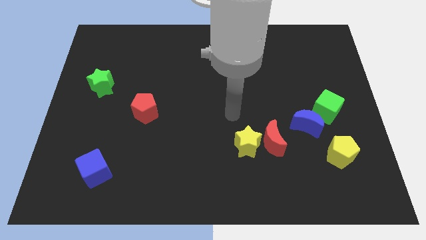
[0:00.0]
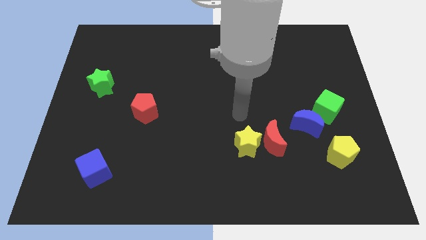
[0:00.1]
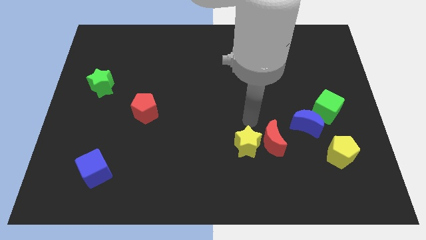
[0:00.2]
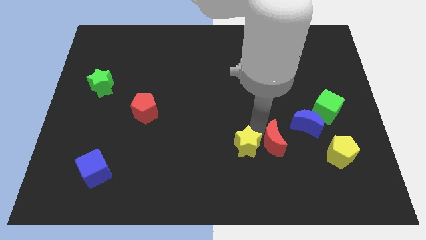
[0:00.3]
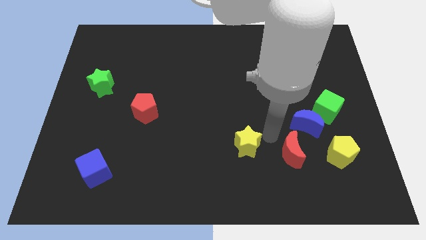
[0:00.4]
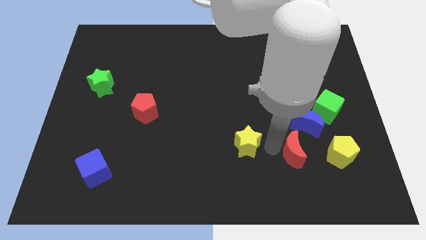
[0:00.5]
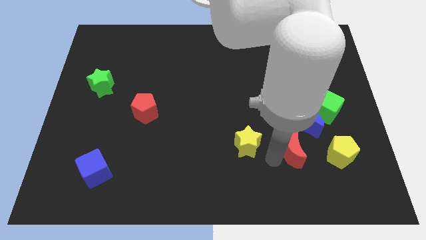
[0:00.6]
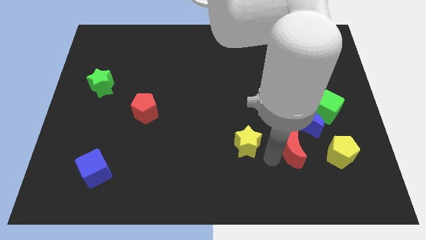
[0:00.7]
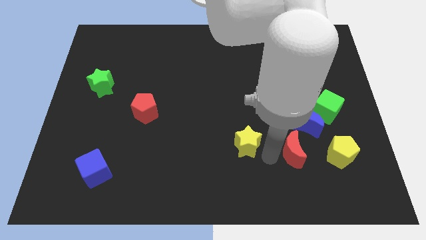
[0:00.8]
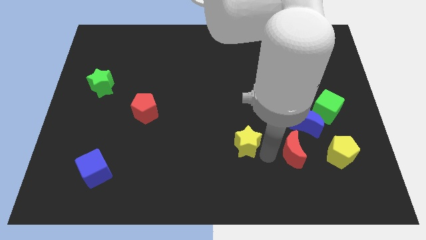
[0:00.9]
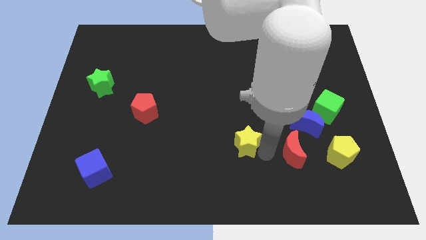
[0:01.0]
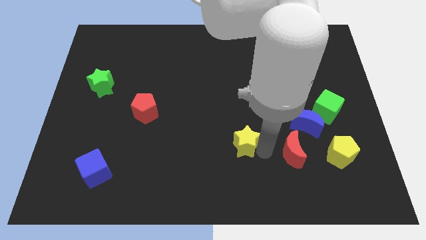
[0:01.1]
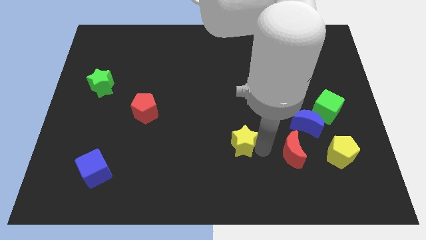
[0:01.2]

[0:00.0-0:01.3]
separate the yellow star from the red moon

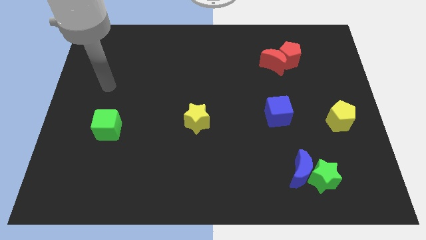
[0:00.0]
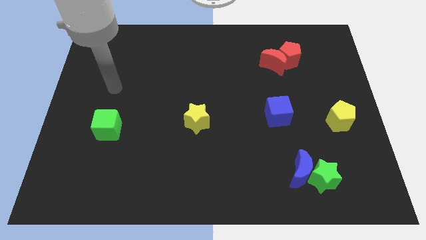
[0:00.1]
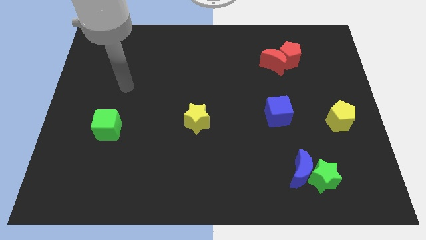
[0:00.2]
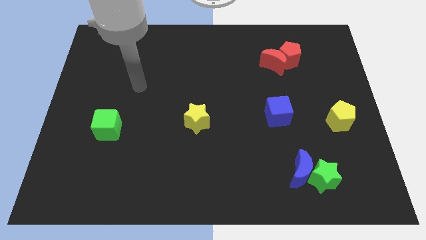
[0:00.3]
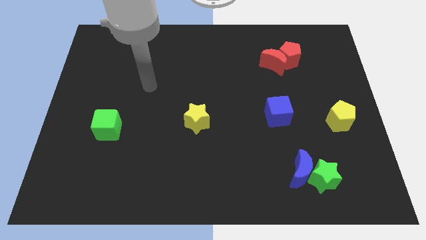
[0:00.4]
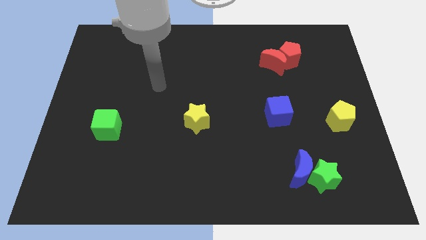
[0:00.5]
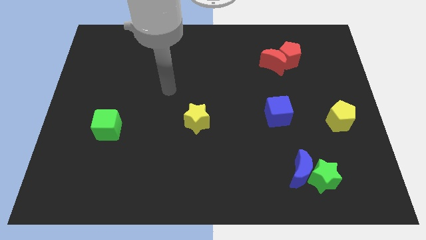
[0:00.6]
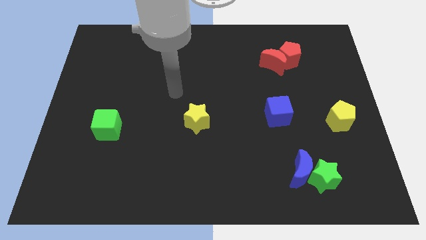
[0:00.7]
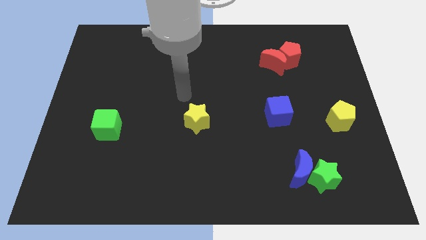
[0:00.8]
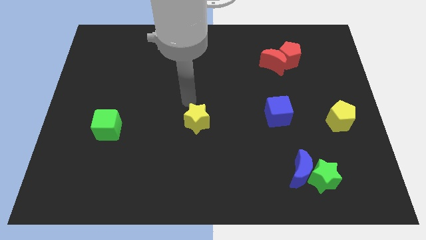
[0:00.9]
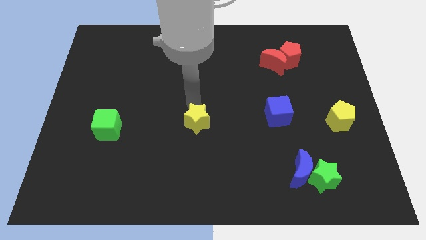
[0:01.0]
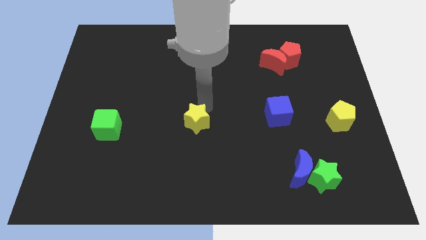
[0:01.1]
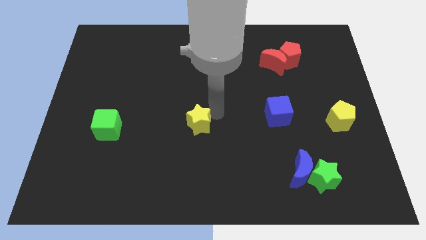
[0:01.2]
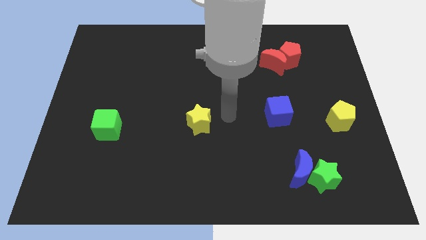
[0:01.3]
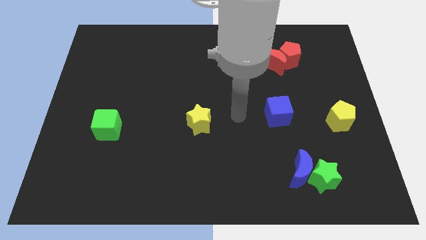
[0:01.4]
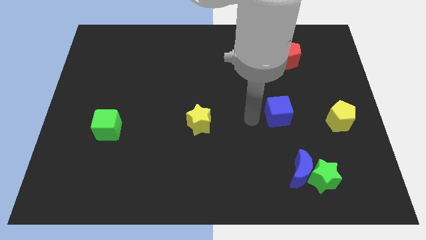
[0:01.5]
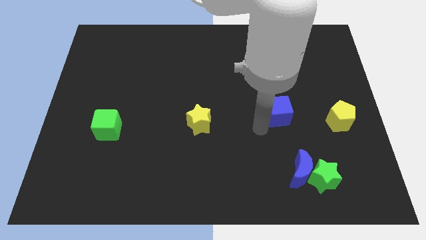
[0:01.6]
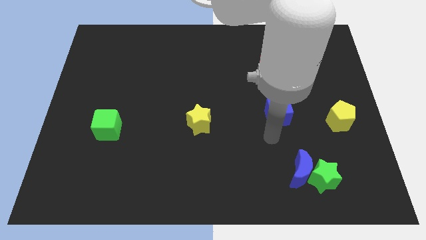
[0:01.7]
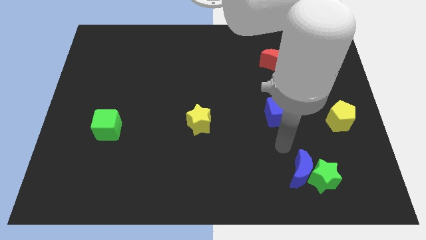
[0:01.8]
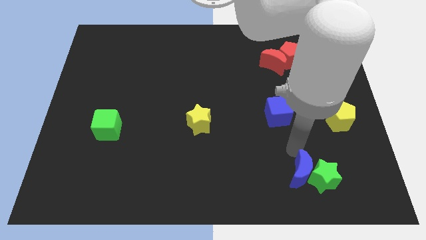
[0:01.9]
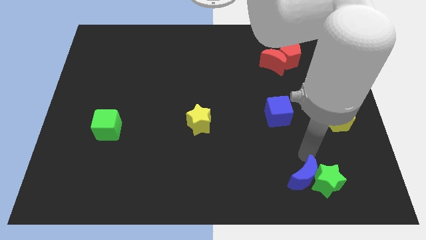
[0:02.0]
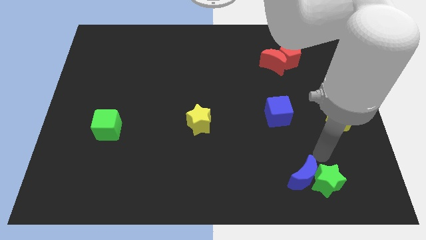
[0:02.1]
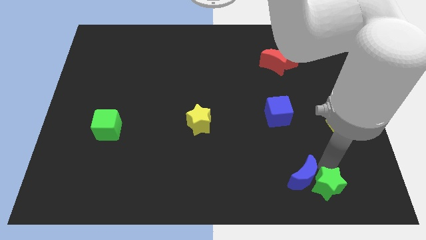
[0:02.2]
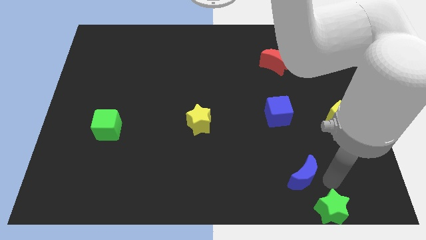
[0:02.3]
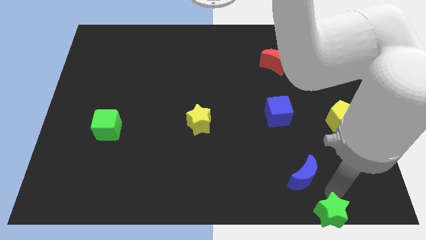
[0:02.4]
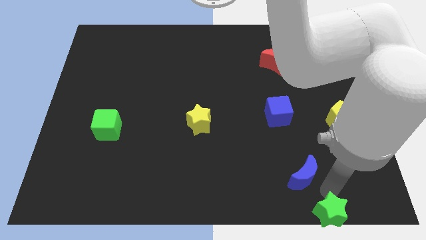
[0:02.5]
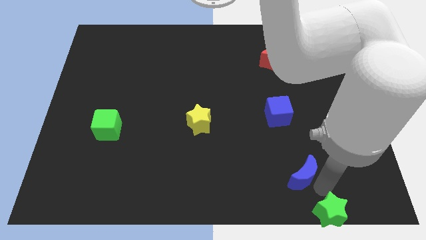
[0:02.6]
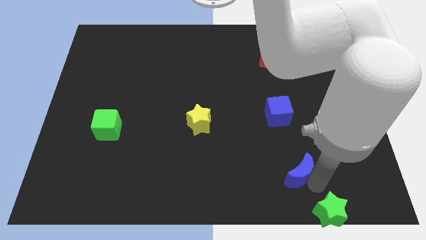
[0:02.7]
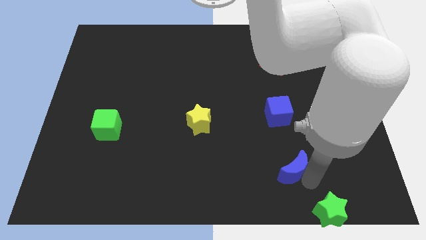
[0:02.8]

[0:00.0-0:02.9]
move the blue moon away from the green star

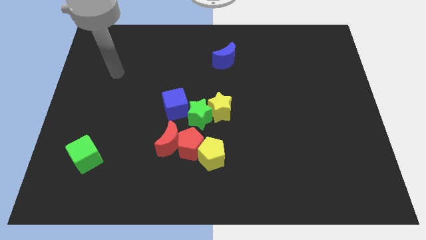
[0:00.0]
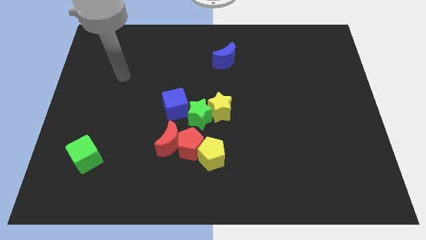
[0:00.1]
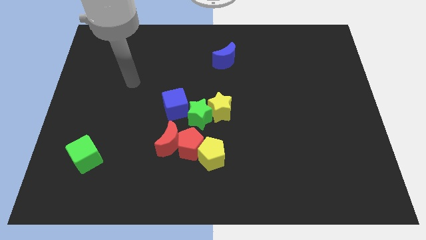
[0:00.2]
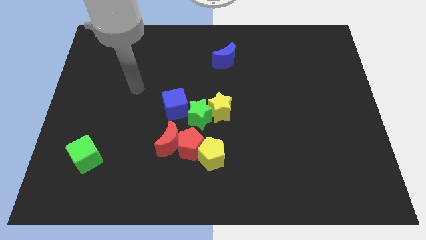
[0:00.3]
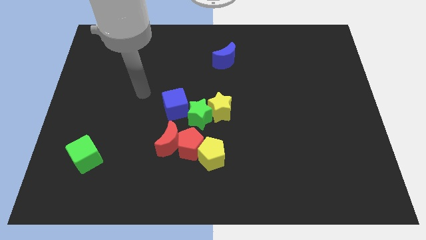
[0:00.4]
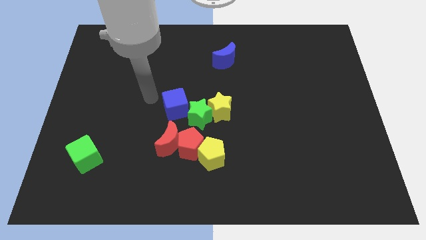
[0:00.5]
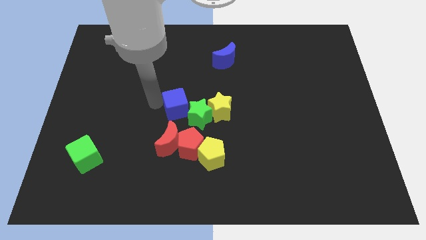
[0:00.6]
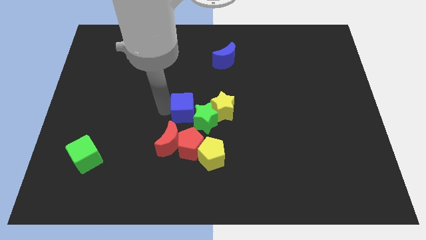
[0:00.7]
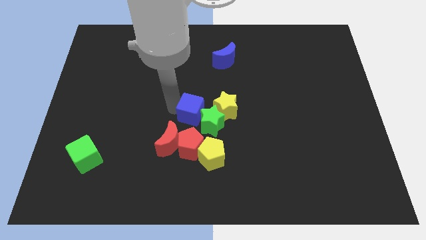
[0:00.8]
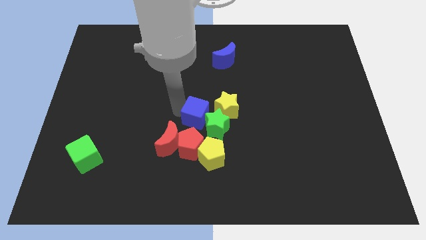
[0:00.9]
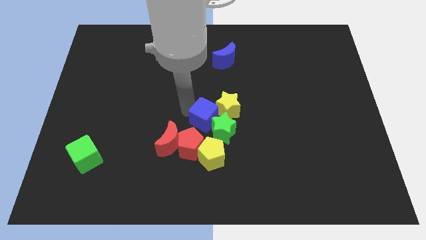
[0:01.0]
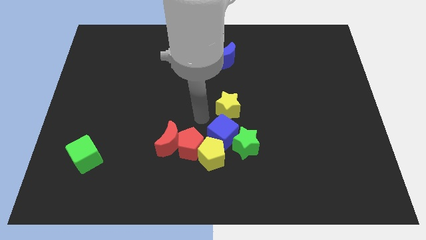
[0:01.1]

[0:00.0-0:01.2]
pull the yellow star apart from the green star

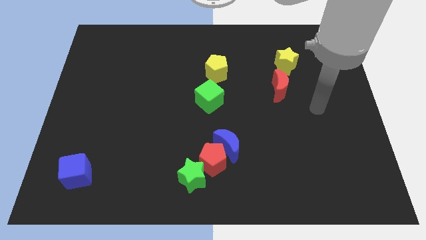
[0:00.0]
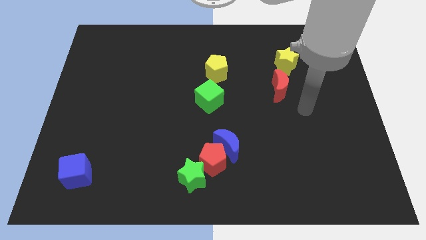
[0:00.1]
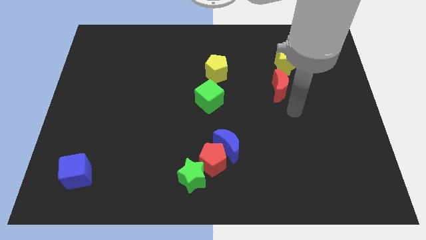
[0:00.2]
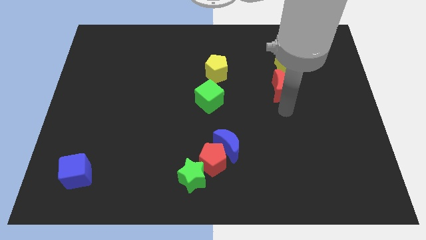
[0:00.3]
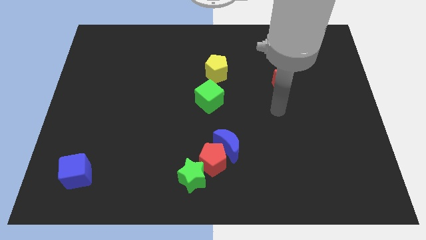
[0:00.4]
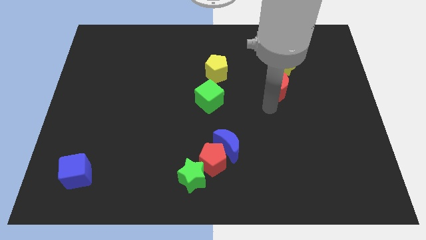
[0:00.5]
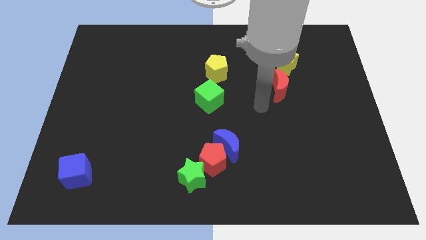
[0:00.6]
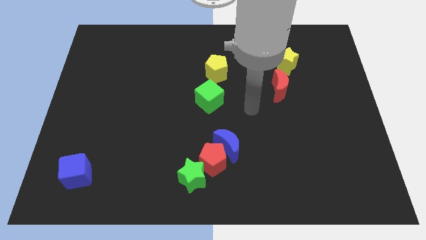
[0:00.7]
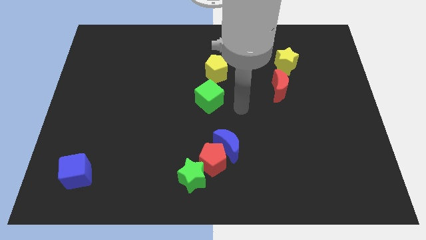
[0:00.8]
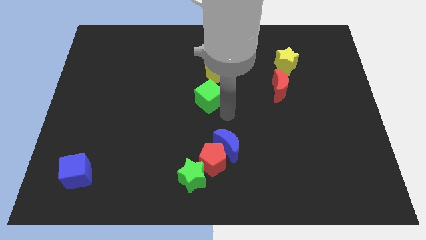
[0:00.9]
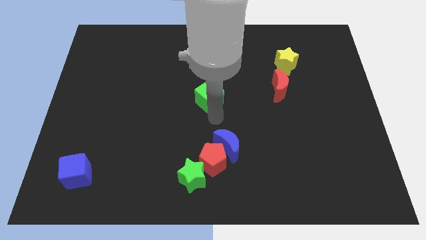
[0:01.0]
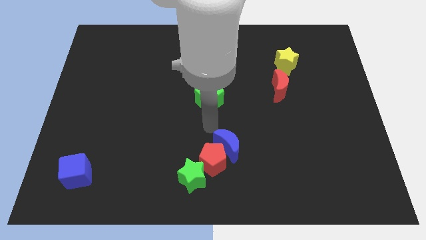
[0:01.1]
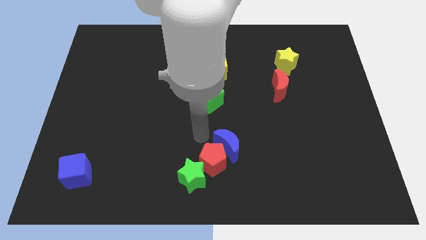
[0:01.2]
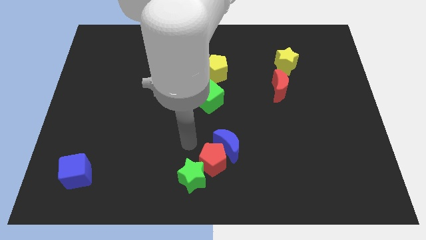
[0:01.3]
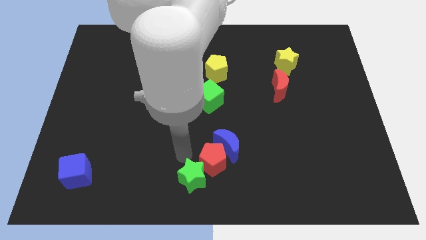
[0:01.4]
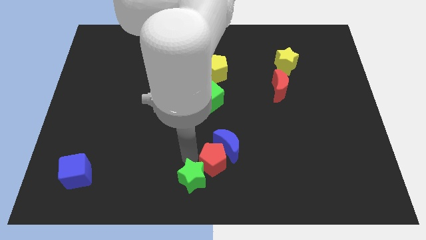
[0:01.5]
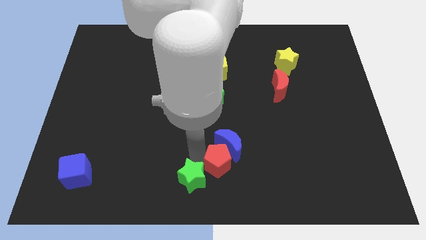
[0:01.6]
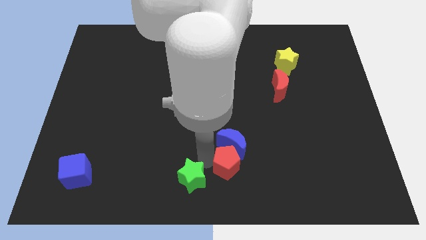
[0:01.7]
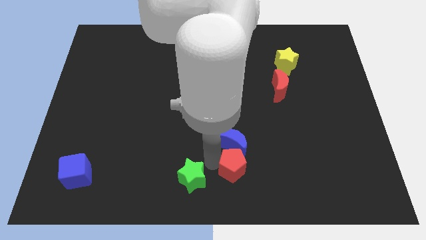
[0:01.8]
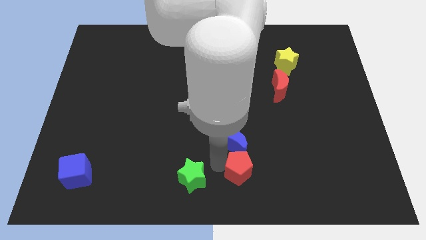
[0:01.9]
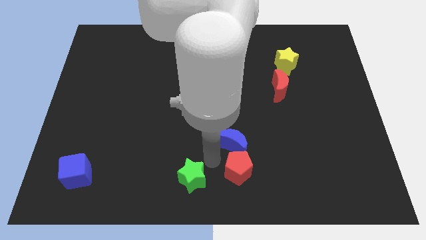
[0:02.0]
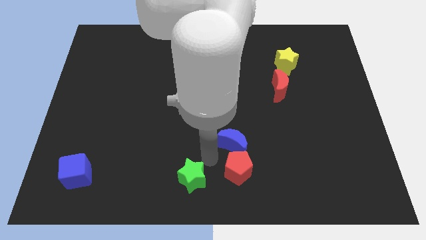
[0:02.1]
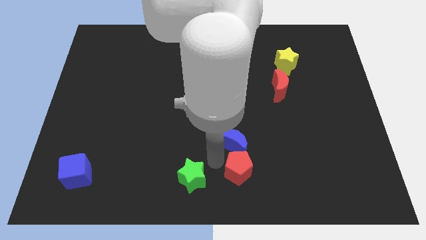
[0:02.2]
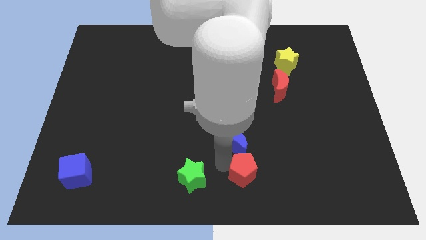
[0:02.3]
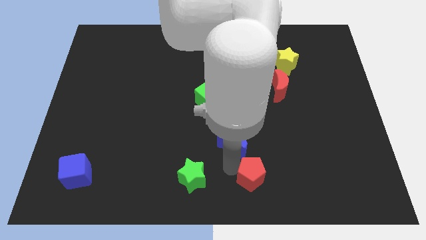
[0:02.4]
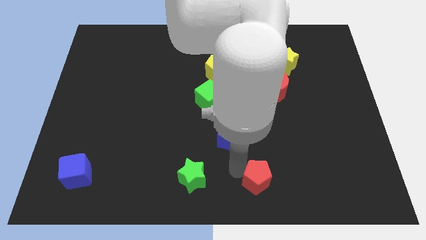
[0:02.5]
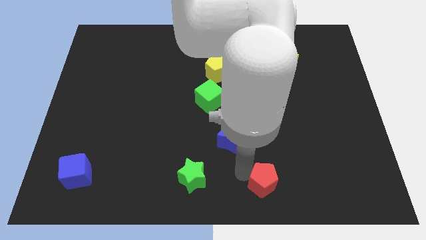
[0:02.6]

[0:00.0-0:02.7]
move the red pentagon away from the blue moon and green star

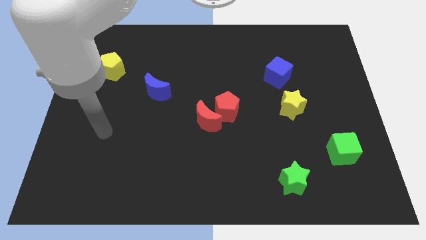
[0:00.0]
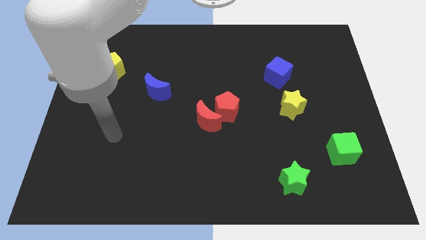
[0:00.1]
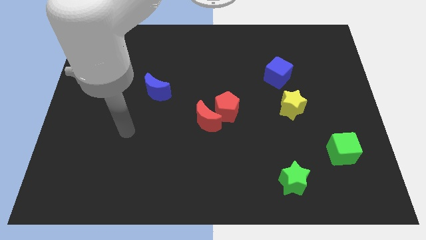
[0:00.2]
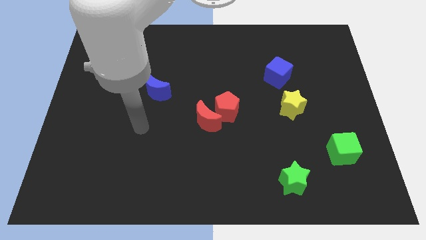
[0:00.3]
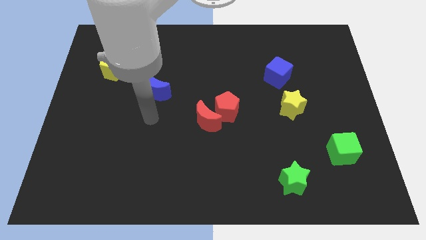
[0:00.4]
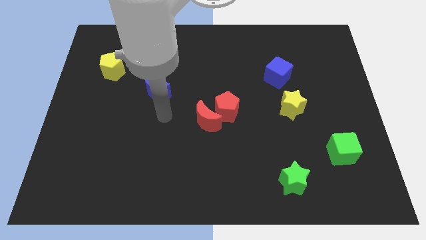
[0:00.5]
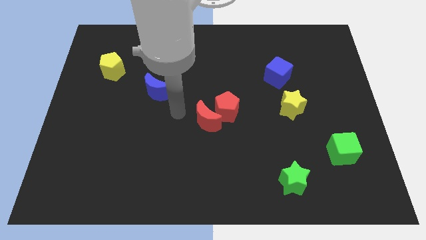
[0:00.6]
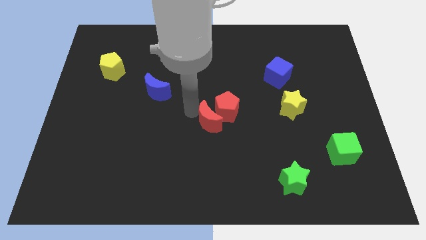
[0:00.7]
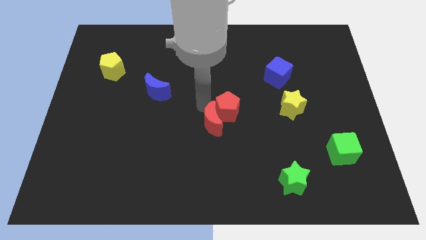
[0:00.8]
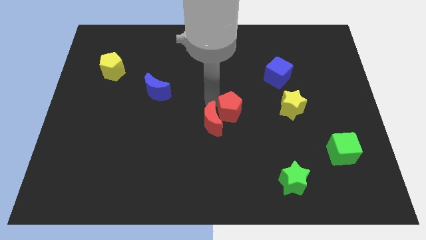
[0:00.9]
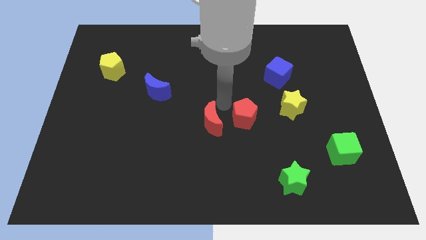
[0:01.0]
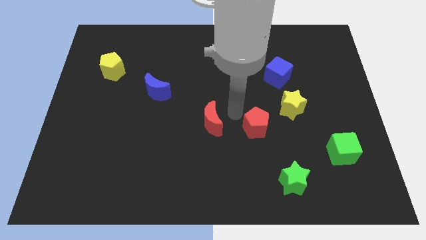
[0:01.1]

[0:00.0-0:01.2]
pull the red moon apart from the red pentagon
